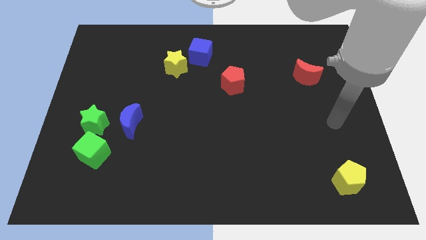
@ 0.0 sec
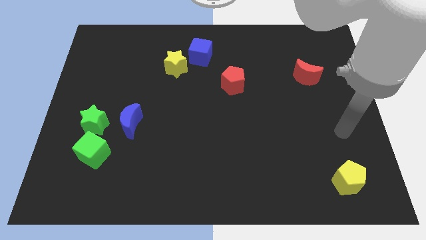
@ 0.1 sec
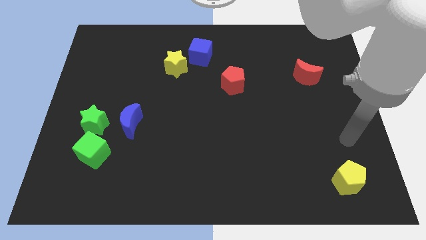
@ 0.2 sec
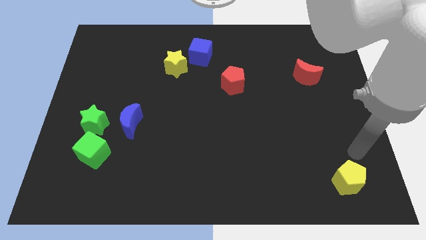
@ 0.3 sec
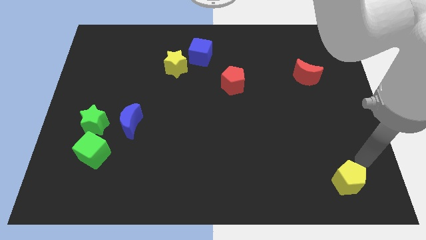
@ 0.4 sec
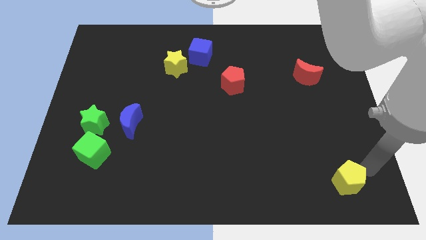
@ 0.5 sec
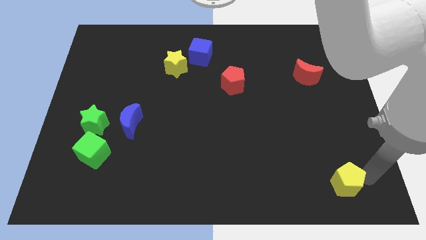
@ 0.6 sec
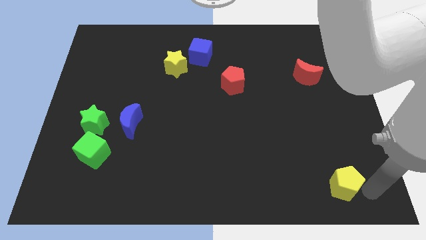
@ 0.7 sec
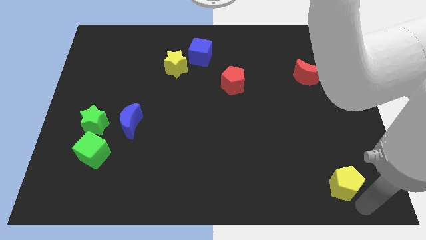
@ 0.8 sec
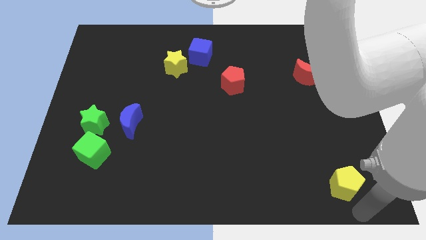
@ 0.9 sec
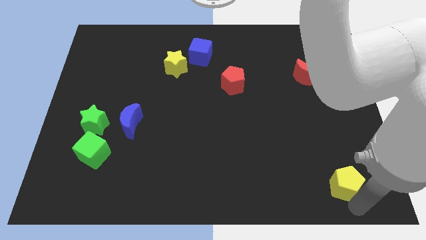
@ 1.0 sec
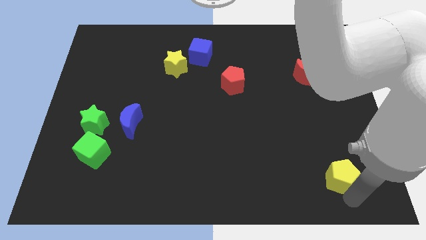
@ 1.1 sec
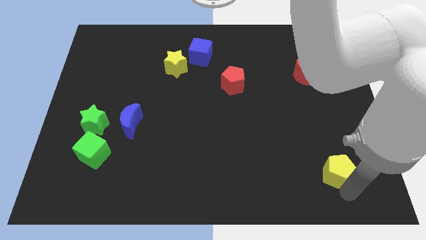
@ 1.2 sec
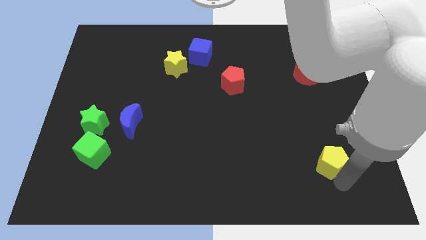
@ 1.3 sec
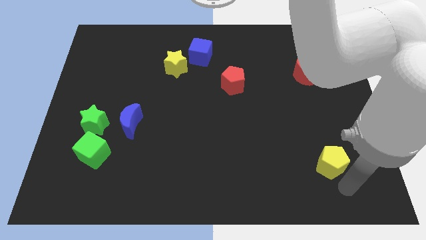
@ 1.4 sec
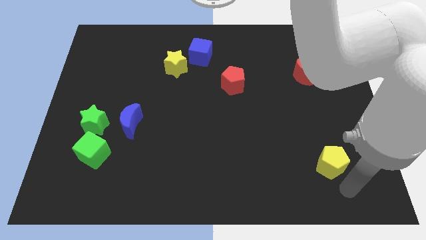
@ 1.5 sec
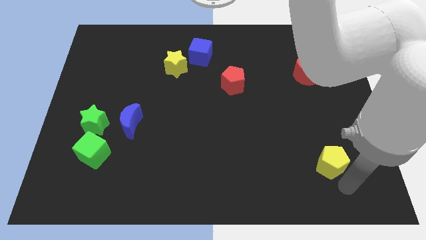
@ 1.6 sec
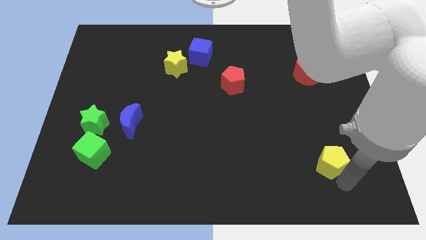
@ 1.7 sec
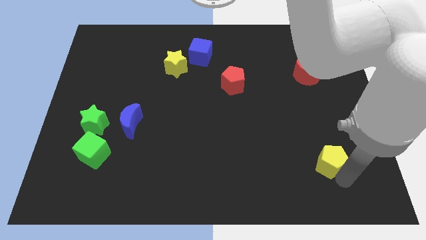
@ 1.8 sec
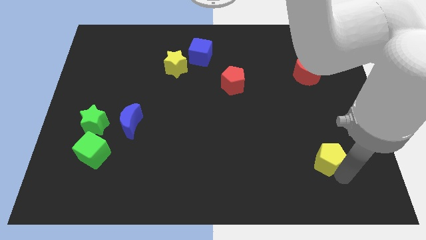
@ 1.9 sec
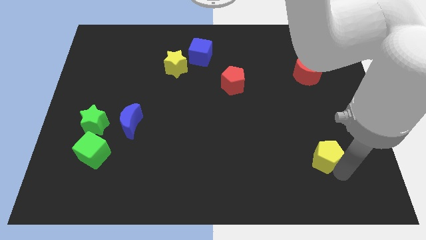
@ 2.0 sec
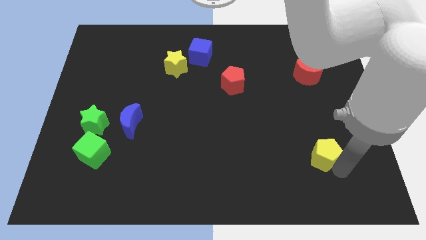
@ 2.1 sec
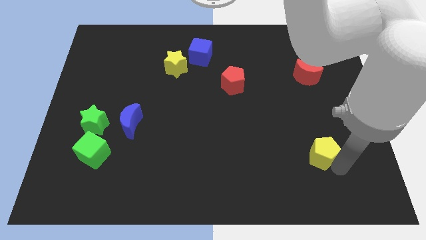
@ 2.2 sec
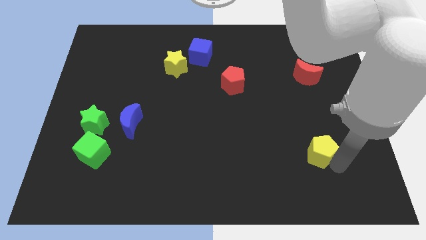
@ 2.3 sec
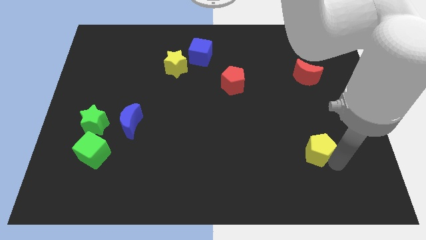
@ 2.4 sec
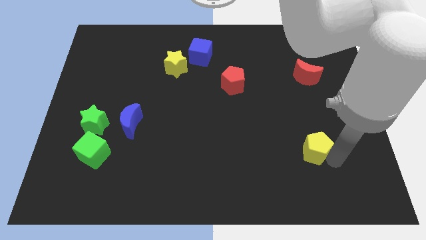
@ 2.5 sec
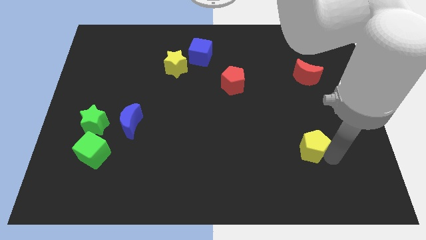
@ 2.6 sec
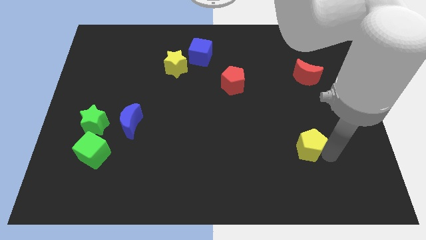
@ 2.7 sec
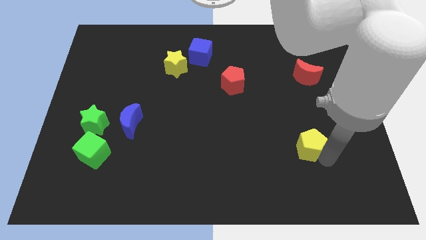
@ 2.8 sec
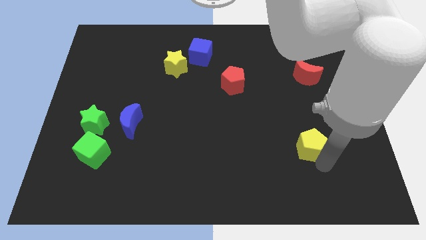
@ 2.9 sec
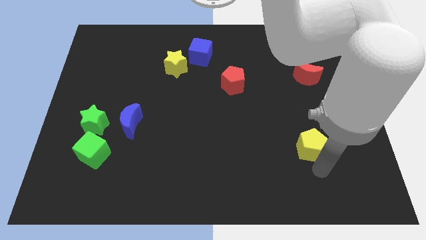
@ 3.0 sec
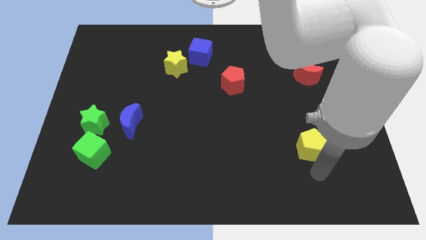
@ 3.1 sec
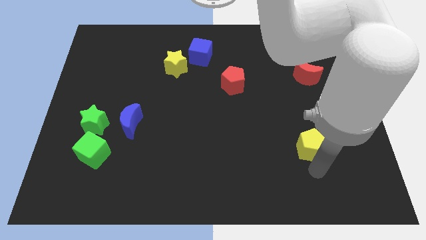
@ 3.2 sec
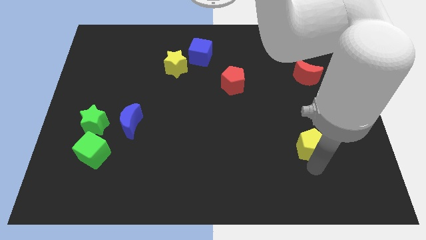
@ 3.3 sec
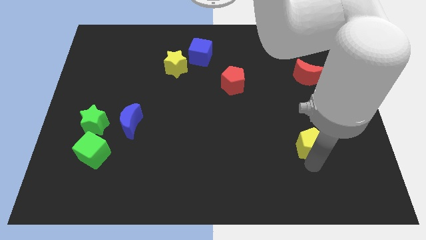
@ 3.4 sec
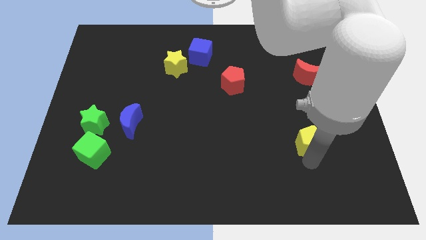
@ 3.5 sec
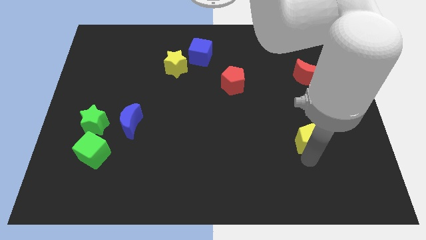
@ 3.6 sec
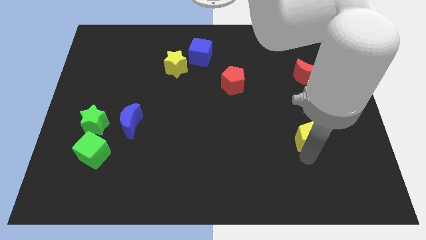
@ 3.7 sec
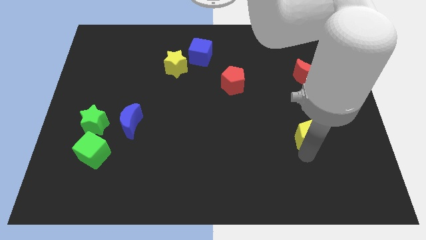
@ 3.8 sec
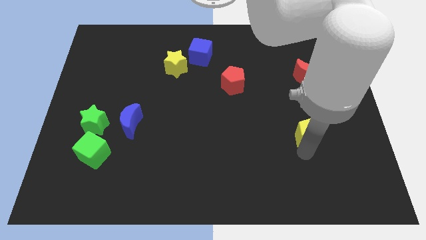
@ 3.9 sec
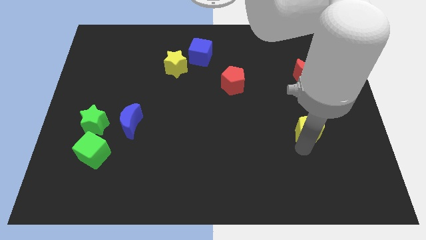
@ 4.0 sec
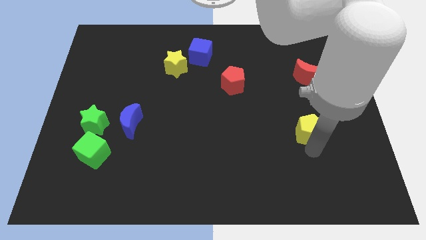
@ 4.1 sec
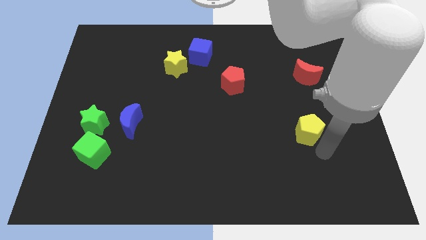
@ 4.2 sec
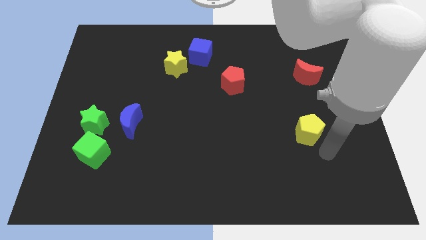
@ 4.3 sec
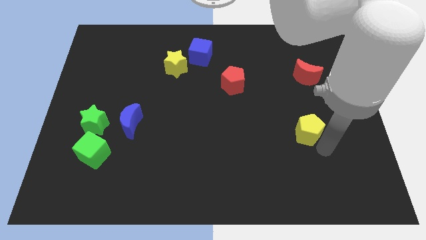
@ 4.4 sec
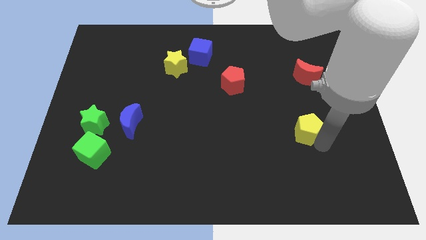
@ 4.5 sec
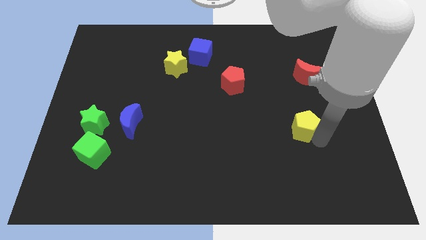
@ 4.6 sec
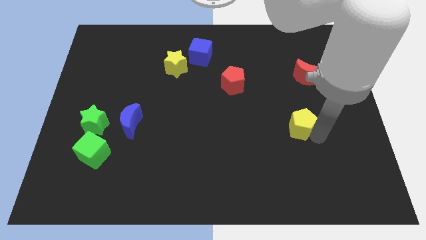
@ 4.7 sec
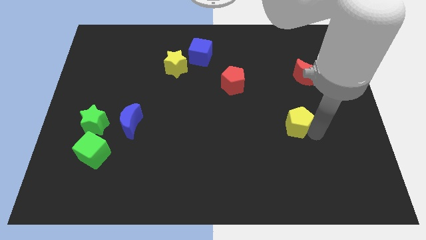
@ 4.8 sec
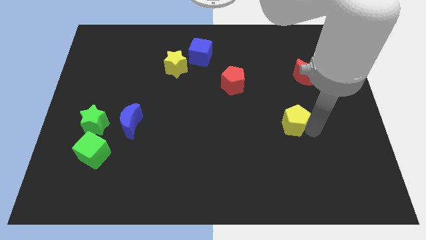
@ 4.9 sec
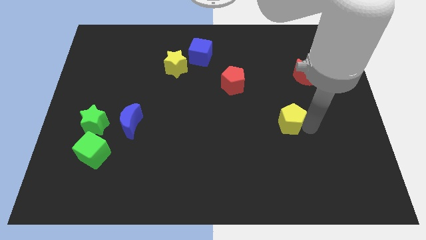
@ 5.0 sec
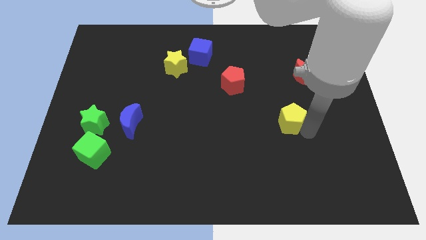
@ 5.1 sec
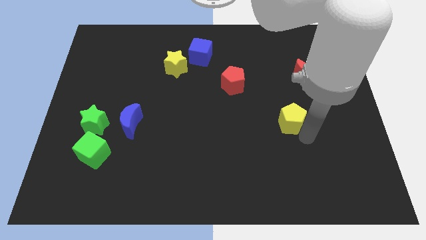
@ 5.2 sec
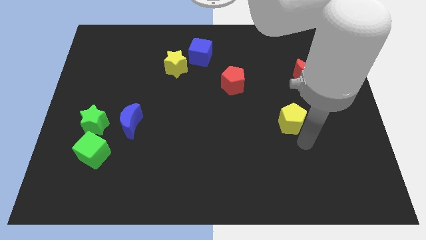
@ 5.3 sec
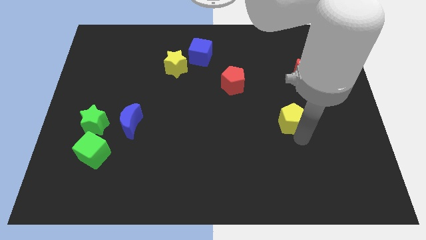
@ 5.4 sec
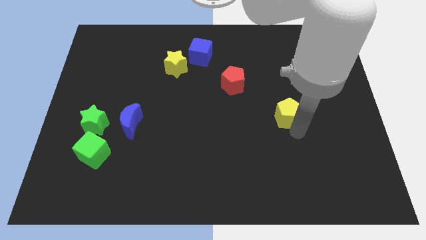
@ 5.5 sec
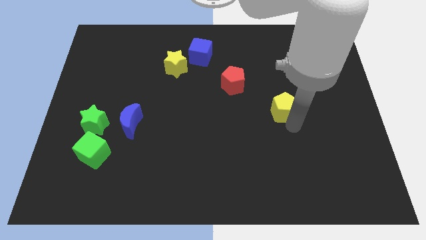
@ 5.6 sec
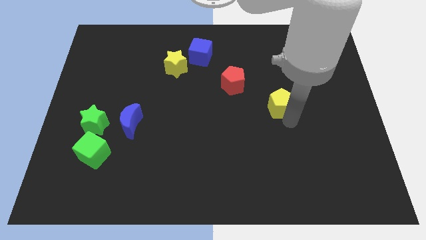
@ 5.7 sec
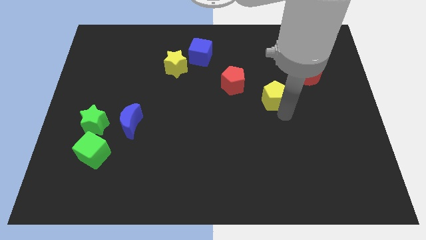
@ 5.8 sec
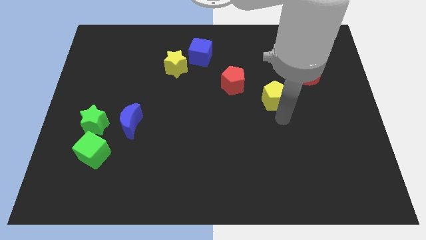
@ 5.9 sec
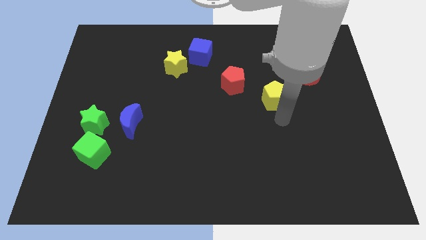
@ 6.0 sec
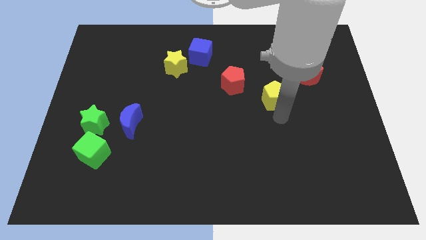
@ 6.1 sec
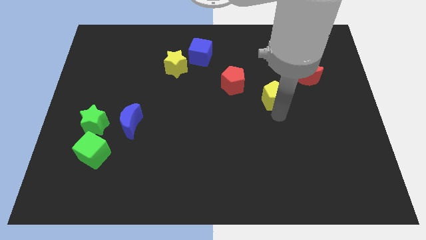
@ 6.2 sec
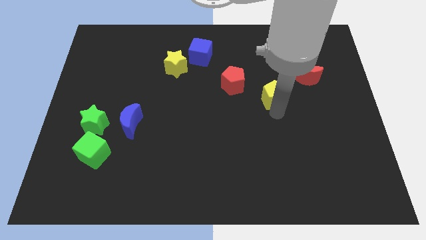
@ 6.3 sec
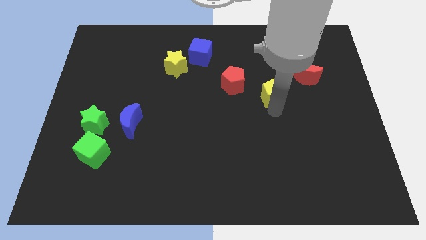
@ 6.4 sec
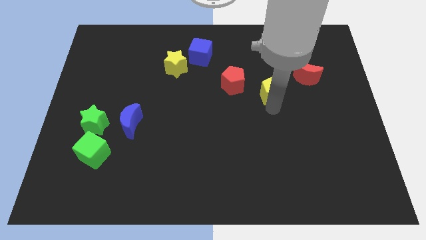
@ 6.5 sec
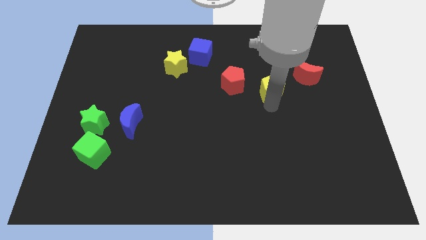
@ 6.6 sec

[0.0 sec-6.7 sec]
slide the yellow pentagon just left of the red moon

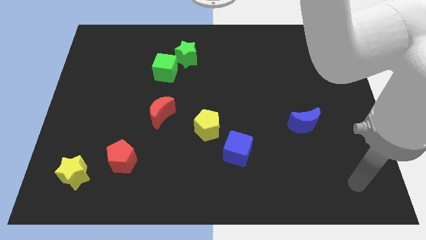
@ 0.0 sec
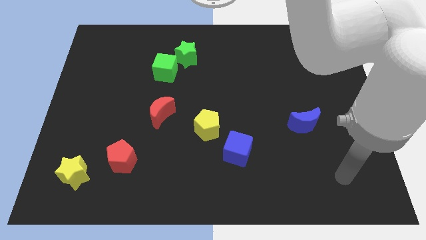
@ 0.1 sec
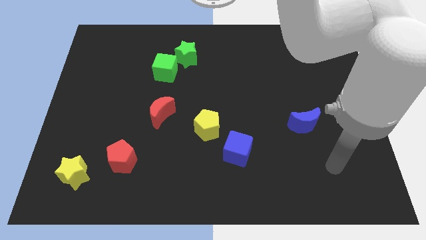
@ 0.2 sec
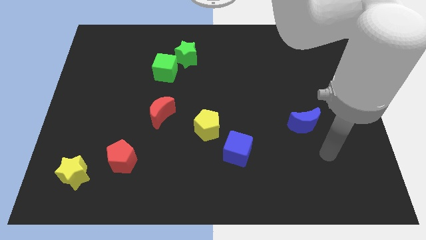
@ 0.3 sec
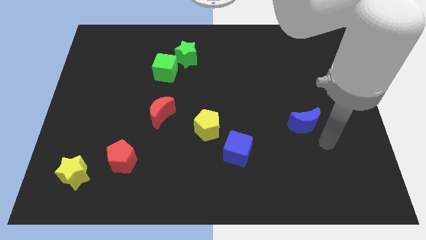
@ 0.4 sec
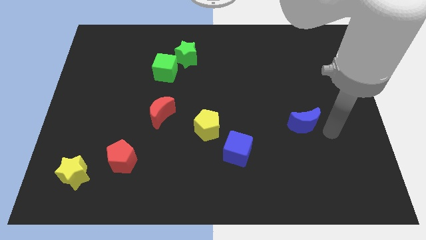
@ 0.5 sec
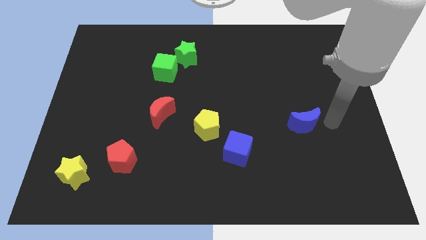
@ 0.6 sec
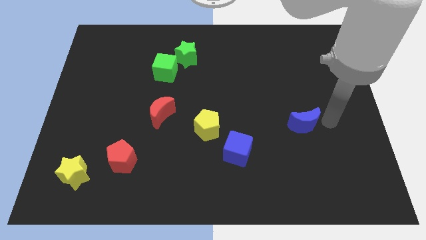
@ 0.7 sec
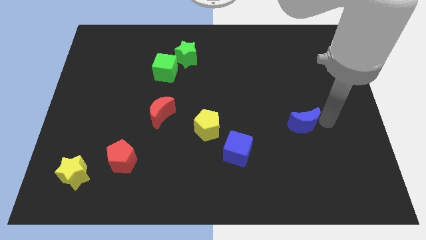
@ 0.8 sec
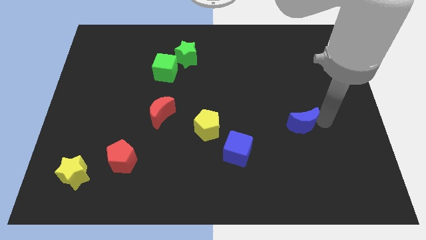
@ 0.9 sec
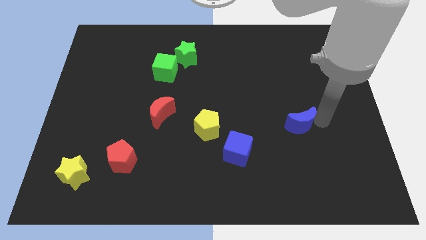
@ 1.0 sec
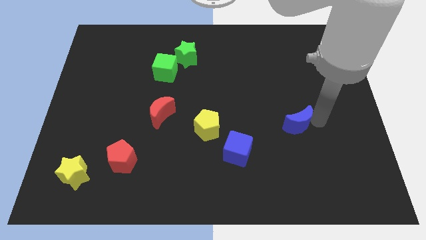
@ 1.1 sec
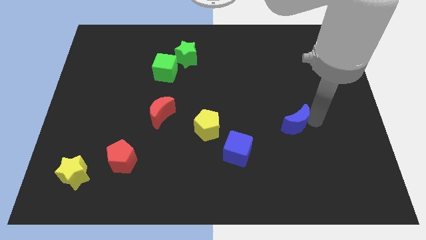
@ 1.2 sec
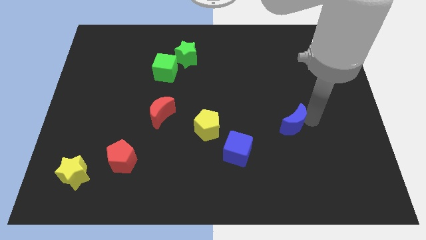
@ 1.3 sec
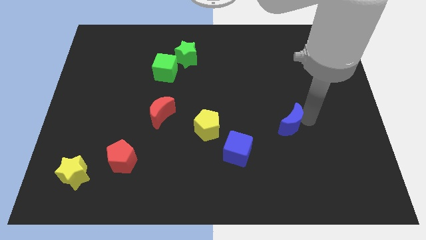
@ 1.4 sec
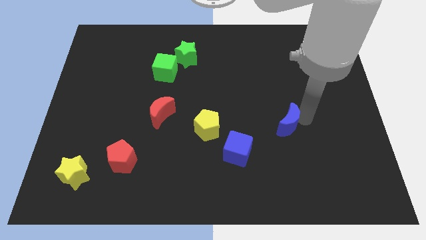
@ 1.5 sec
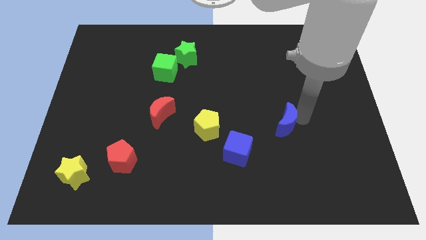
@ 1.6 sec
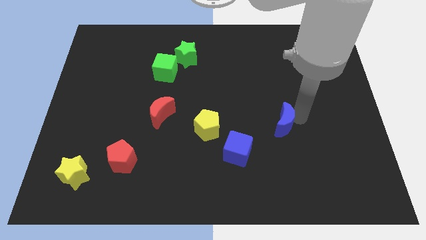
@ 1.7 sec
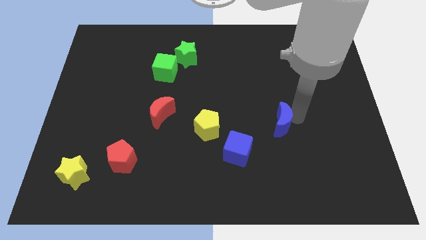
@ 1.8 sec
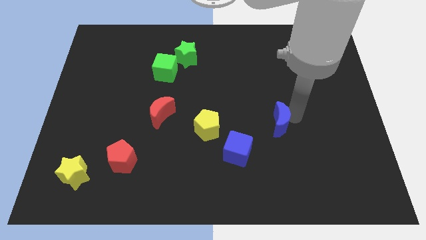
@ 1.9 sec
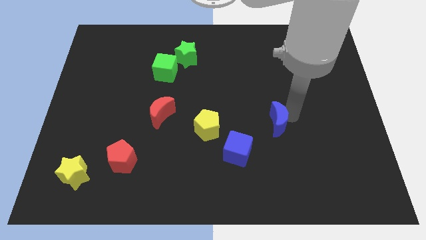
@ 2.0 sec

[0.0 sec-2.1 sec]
put the blue moon to the right of the yellow pentagon
